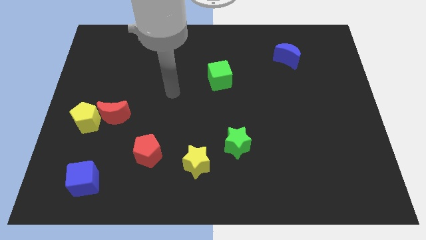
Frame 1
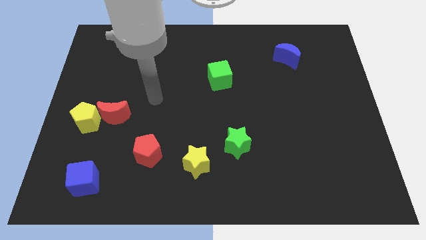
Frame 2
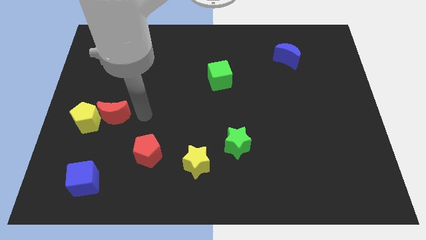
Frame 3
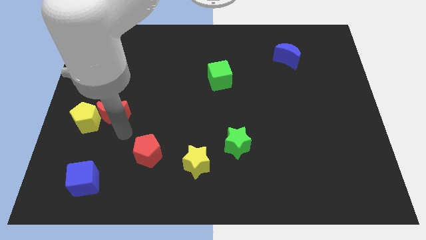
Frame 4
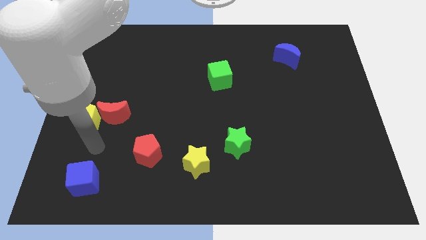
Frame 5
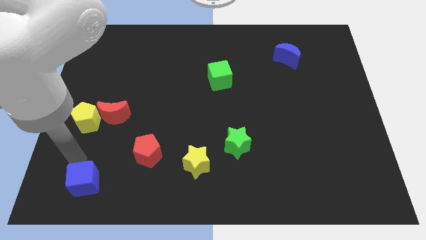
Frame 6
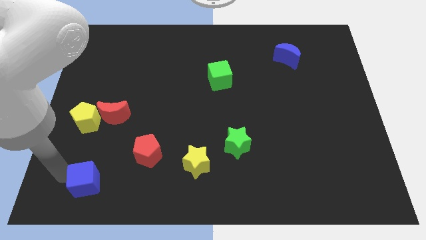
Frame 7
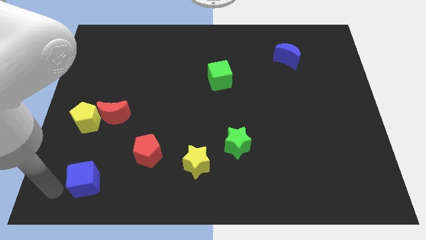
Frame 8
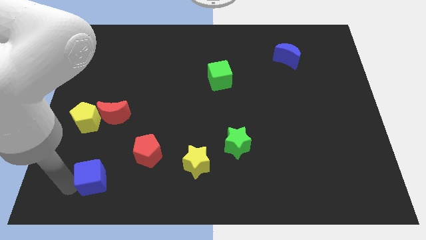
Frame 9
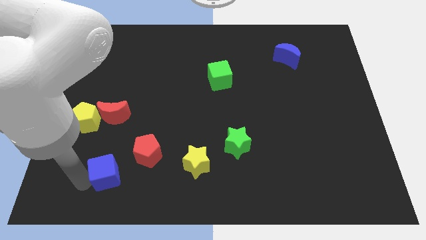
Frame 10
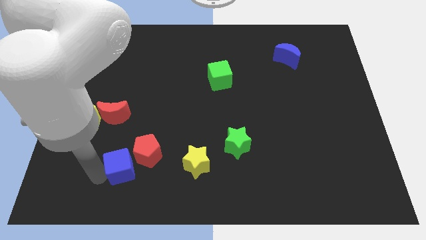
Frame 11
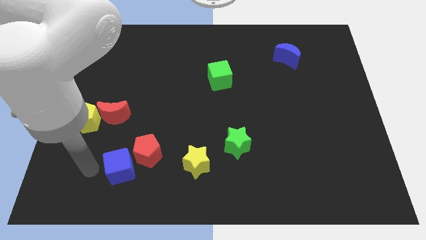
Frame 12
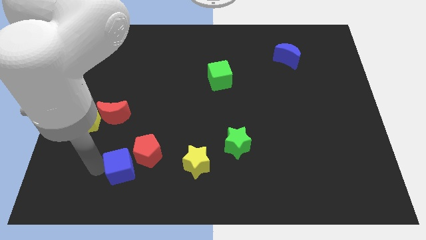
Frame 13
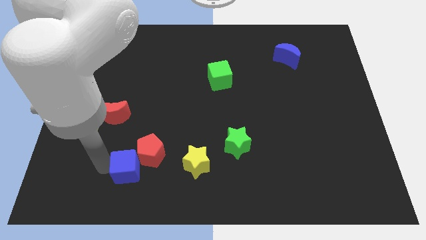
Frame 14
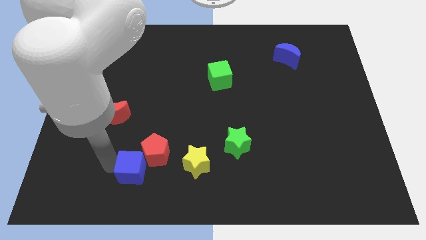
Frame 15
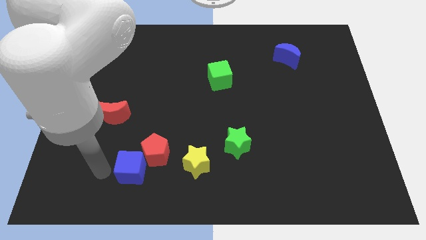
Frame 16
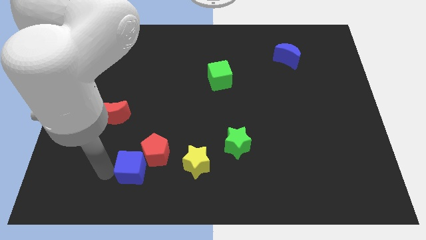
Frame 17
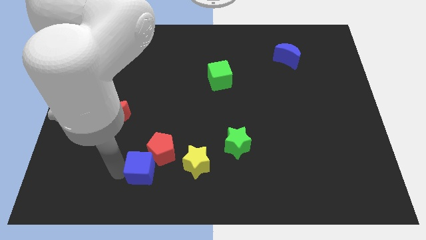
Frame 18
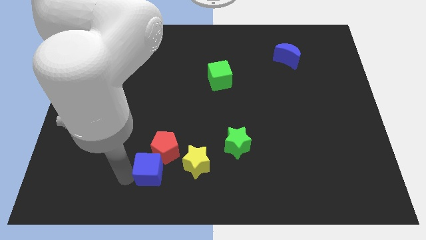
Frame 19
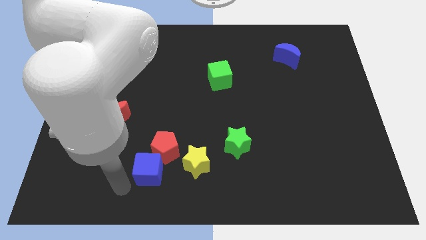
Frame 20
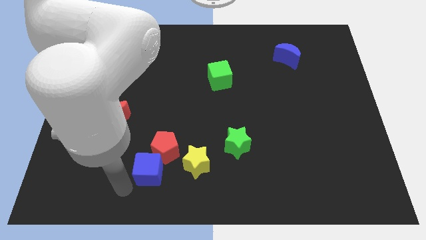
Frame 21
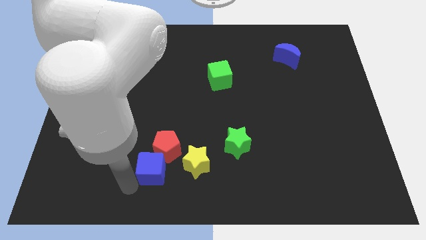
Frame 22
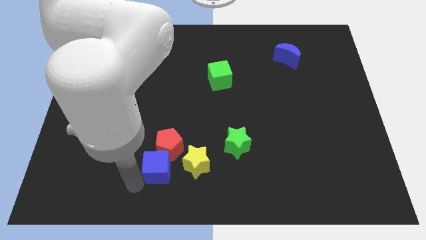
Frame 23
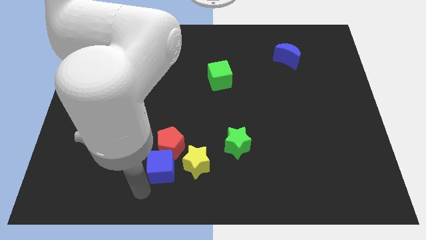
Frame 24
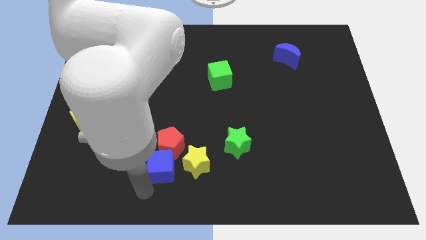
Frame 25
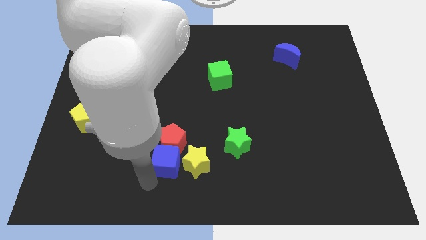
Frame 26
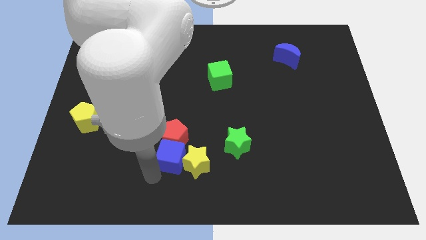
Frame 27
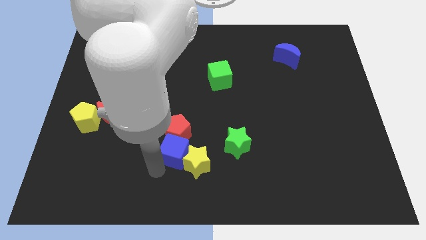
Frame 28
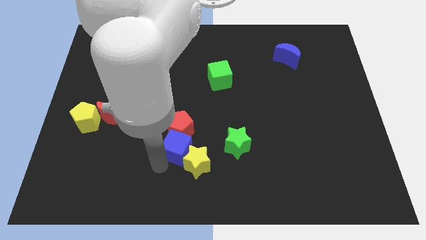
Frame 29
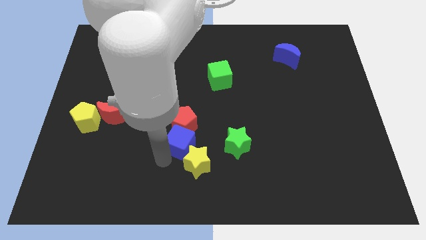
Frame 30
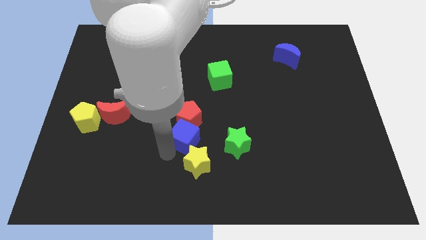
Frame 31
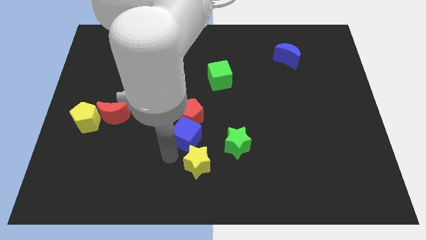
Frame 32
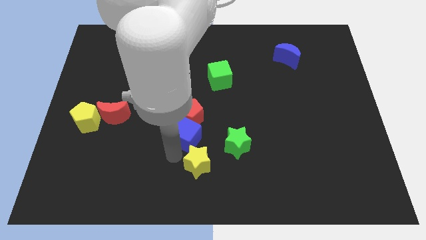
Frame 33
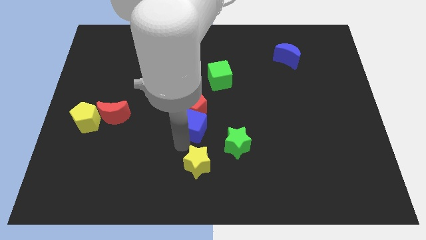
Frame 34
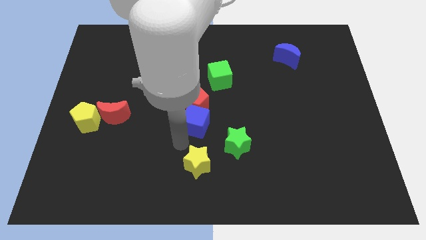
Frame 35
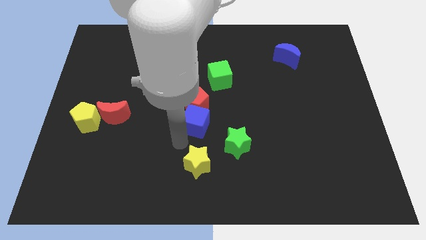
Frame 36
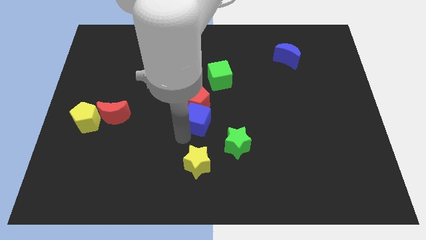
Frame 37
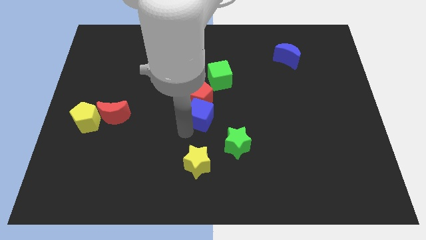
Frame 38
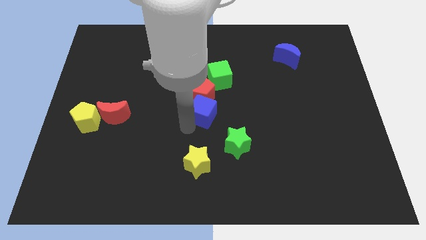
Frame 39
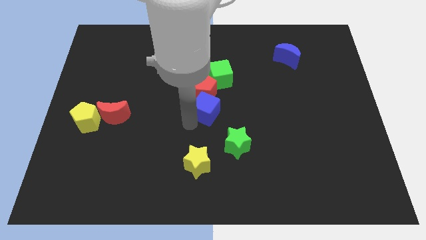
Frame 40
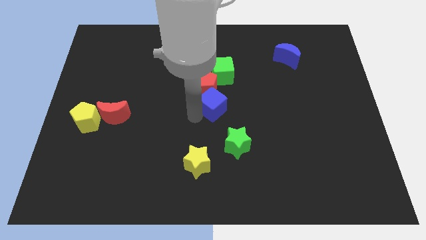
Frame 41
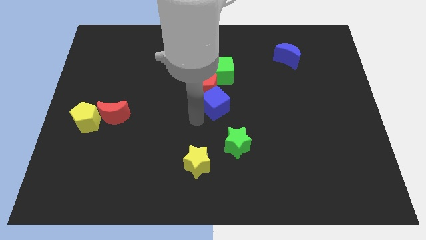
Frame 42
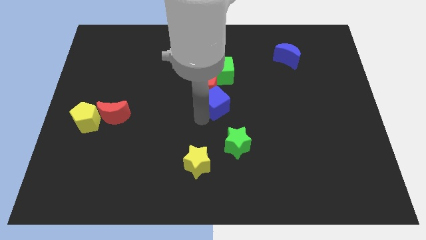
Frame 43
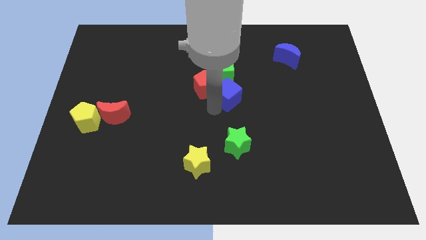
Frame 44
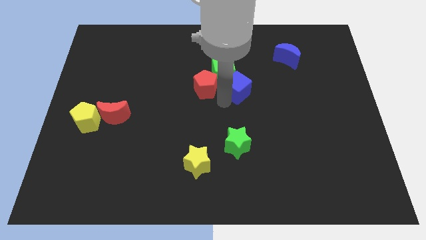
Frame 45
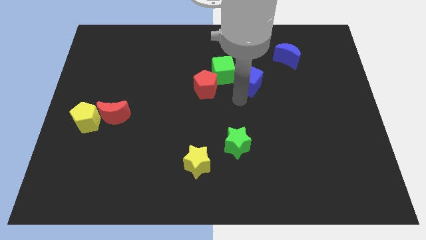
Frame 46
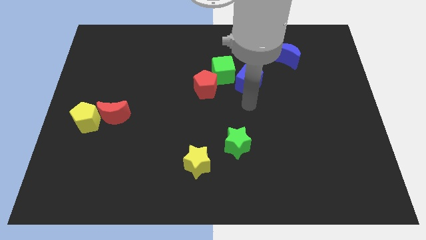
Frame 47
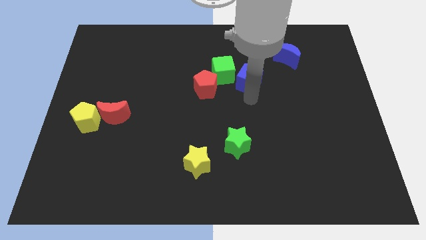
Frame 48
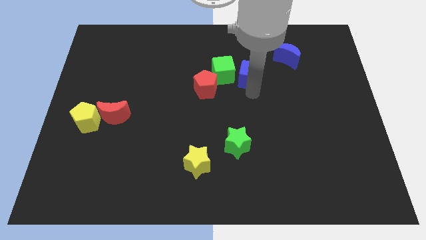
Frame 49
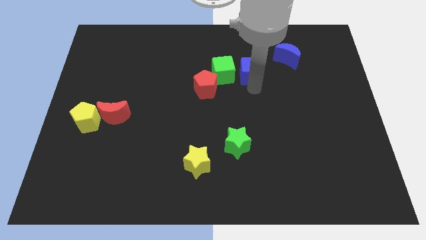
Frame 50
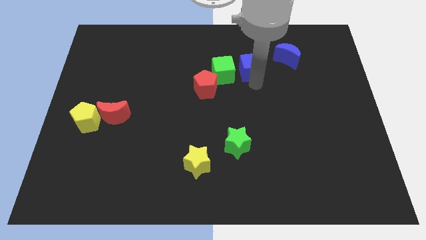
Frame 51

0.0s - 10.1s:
push the blue cube left of the blue moon

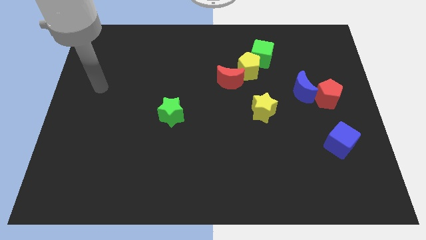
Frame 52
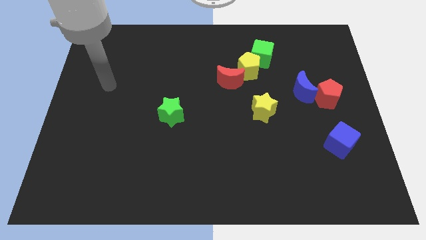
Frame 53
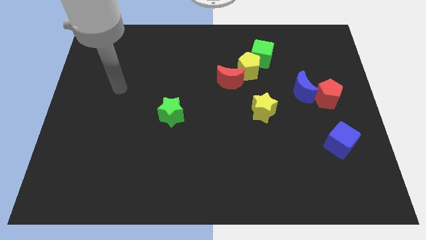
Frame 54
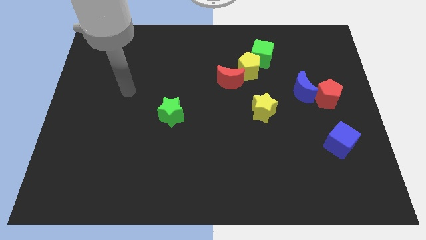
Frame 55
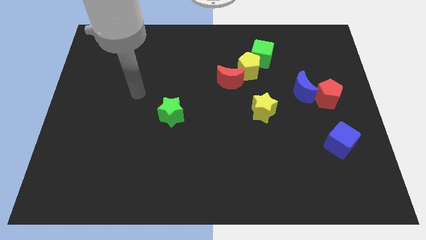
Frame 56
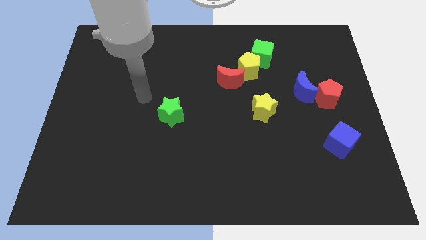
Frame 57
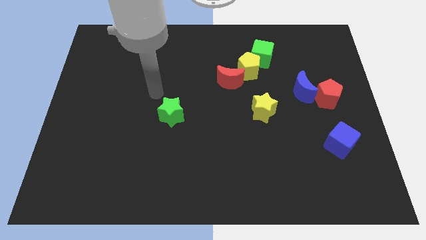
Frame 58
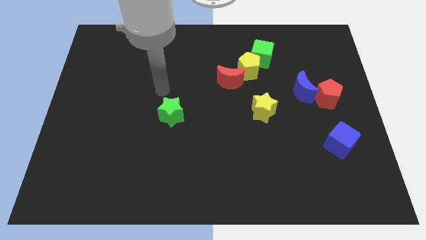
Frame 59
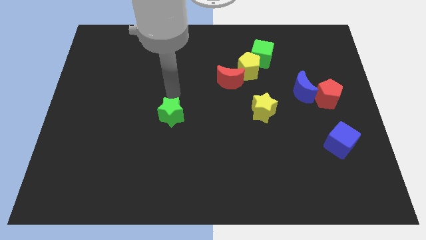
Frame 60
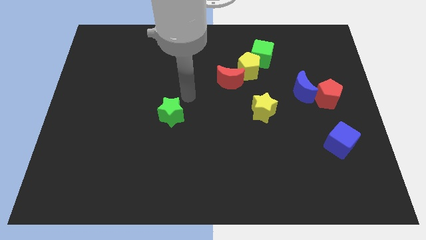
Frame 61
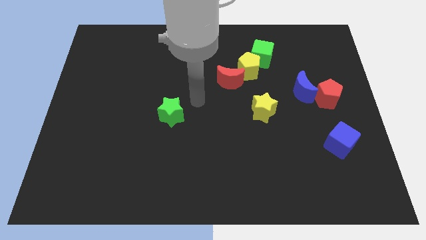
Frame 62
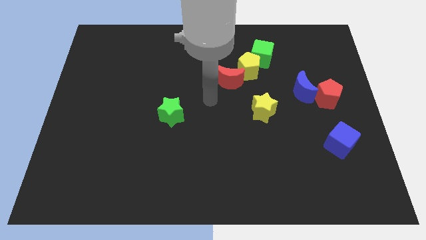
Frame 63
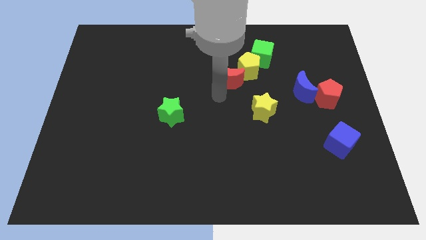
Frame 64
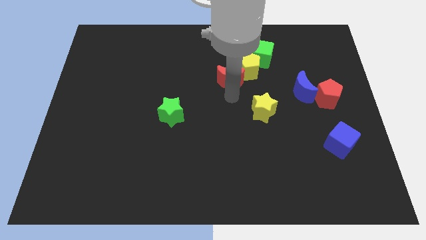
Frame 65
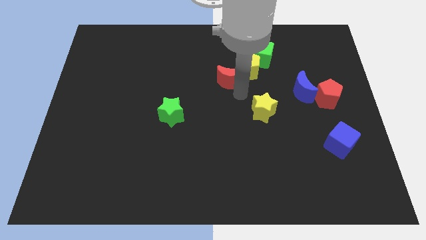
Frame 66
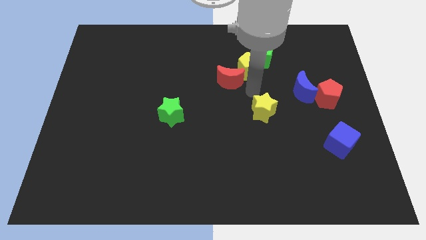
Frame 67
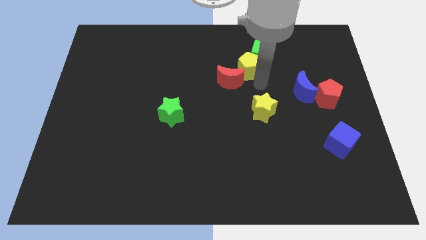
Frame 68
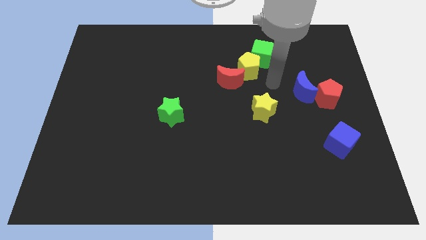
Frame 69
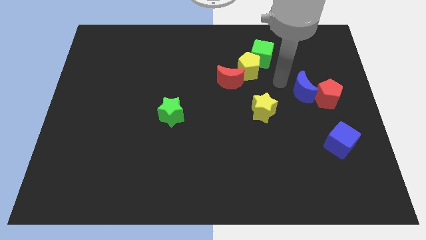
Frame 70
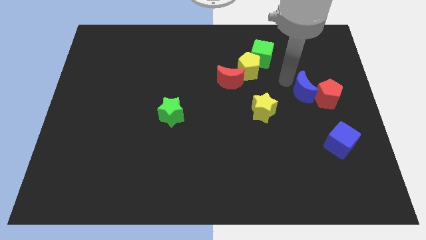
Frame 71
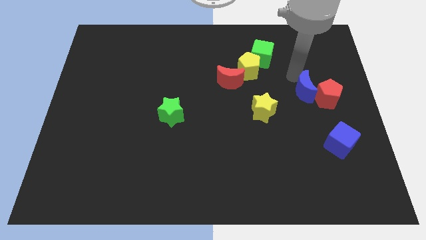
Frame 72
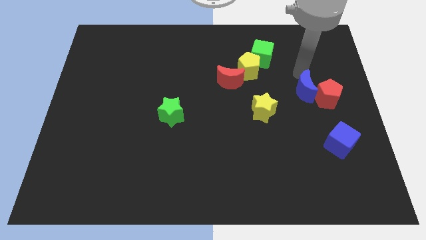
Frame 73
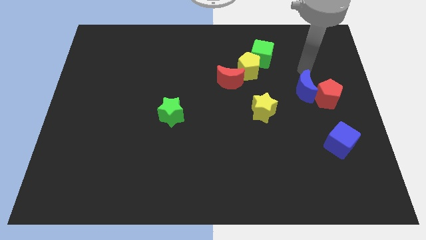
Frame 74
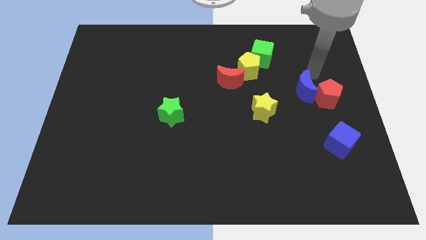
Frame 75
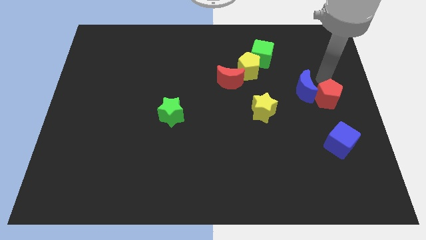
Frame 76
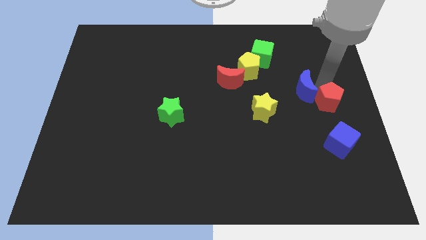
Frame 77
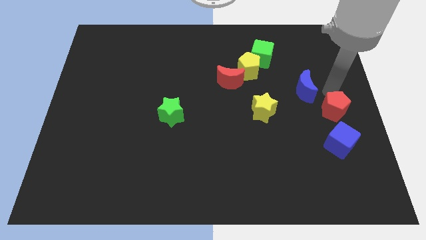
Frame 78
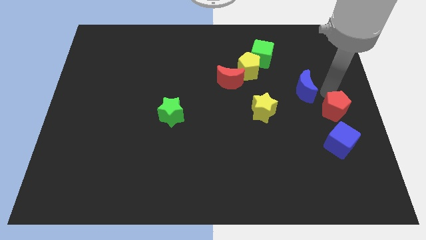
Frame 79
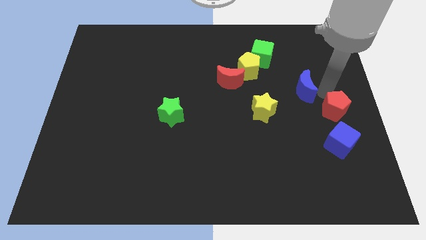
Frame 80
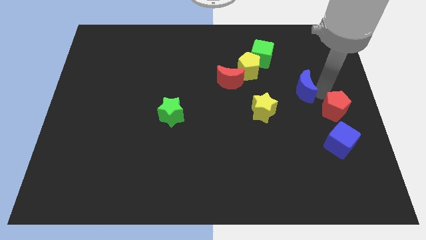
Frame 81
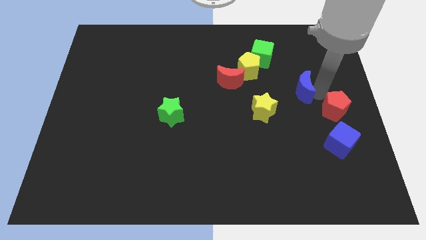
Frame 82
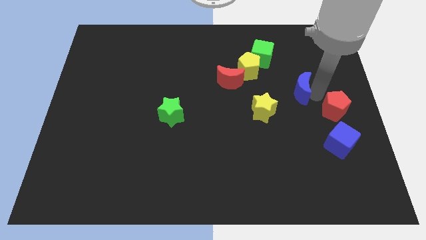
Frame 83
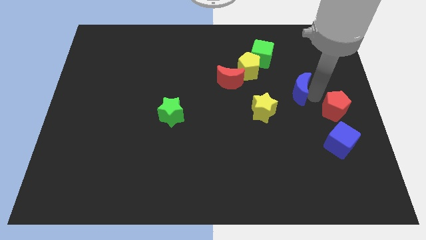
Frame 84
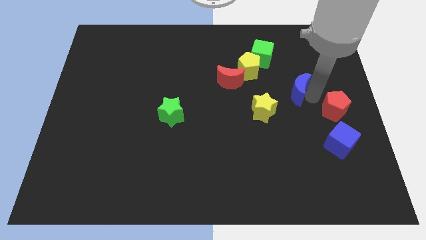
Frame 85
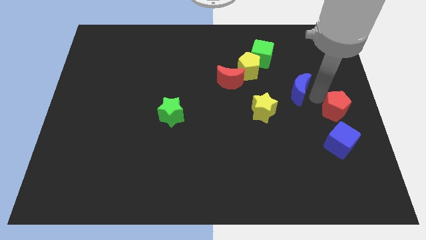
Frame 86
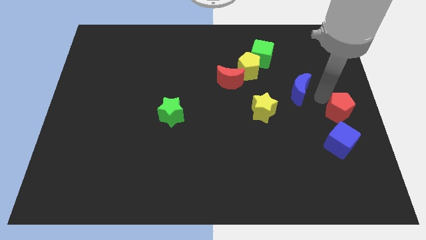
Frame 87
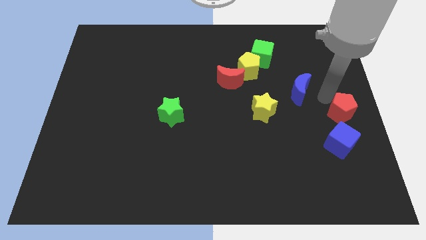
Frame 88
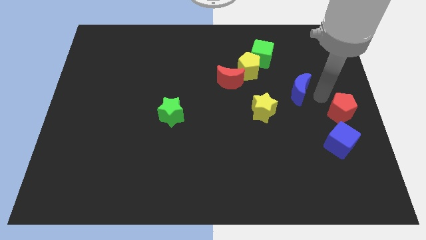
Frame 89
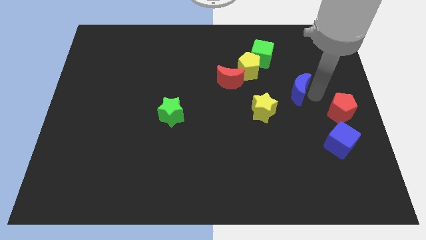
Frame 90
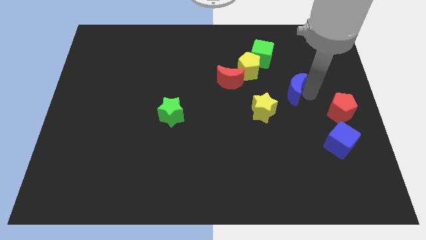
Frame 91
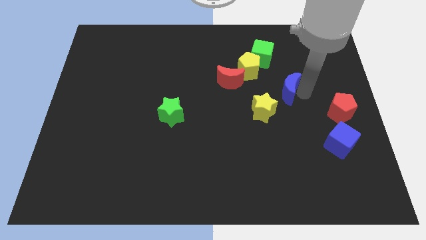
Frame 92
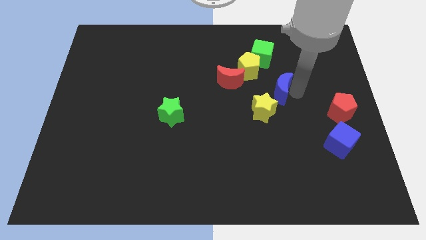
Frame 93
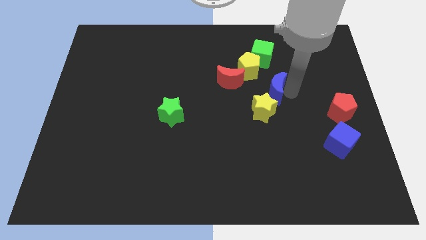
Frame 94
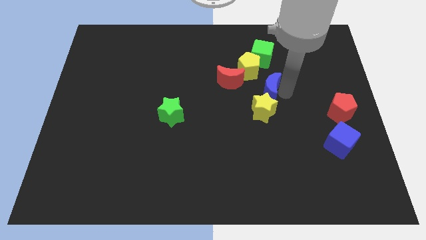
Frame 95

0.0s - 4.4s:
move the blue moon diagonally down and to the right of the red moon
